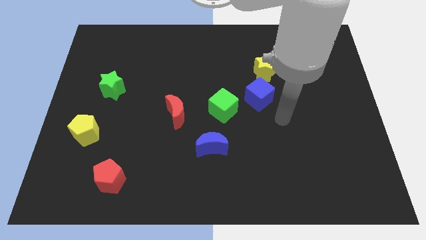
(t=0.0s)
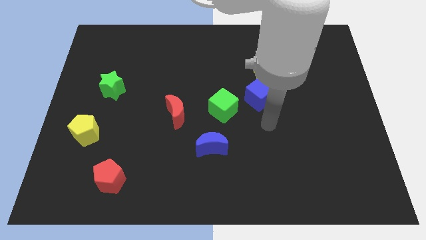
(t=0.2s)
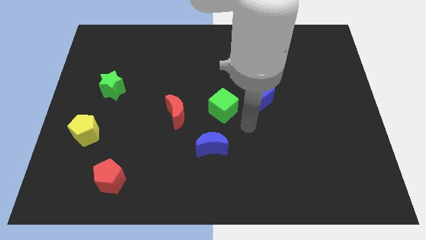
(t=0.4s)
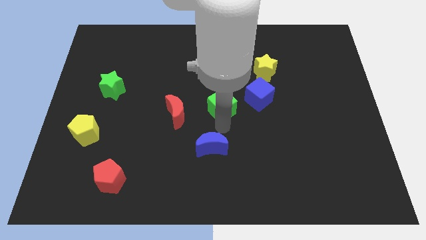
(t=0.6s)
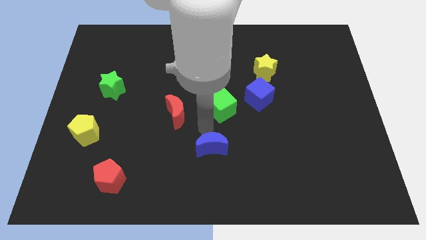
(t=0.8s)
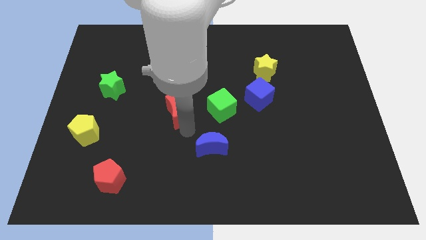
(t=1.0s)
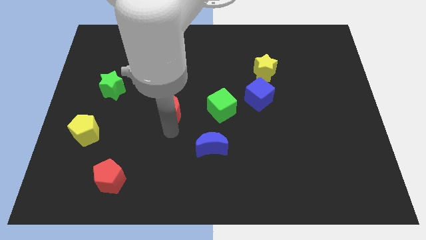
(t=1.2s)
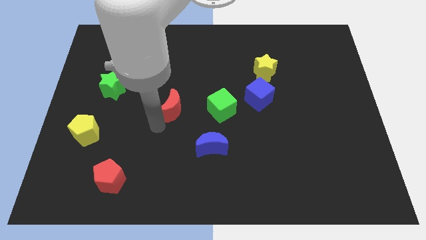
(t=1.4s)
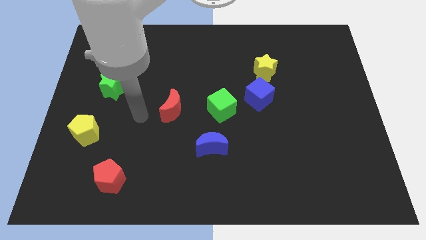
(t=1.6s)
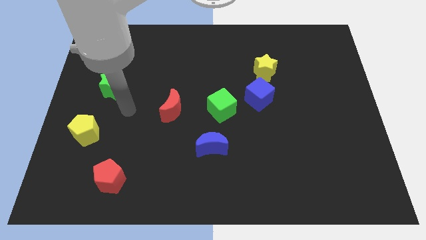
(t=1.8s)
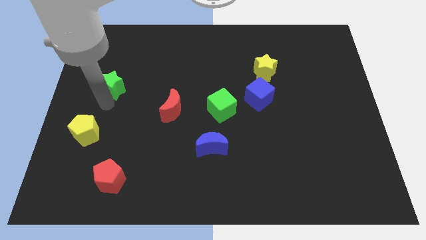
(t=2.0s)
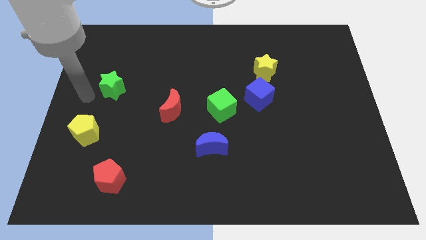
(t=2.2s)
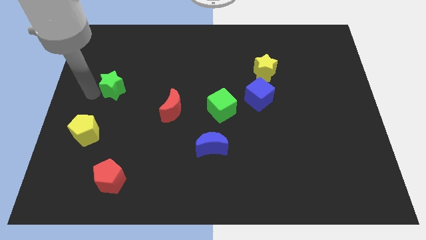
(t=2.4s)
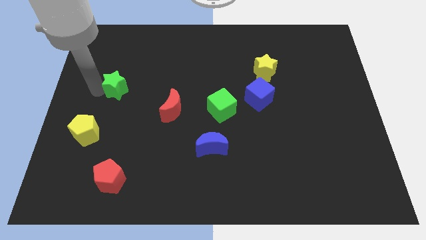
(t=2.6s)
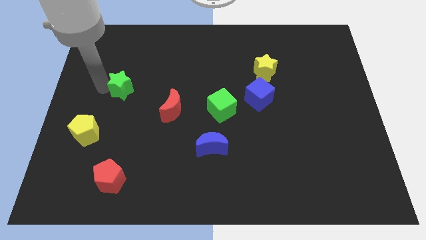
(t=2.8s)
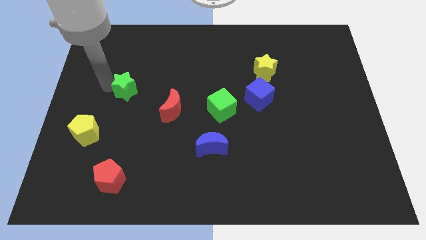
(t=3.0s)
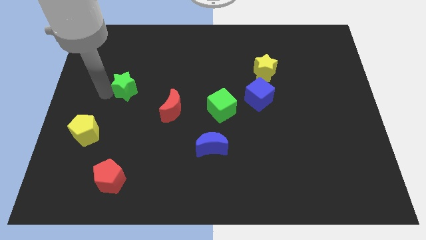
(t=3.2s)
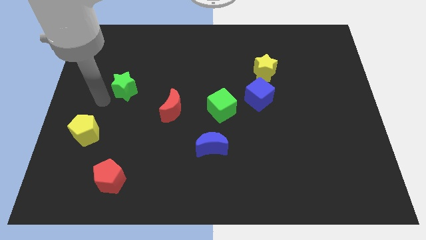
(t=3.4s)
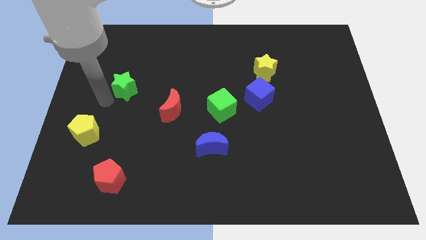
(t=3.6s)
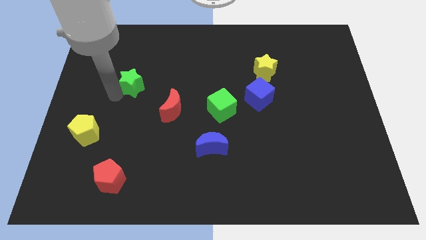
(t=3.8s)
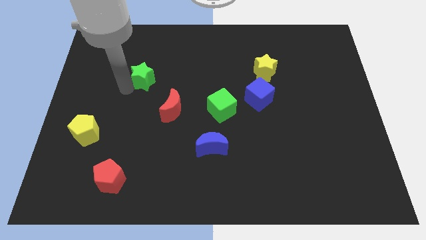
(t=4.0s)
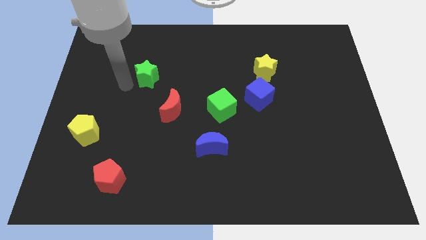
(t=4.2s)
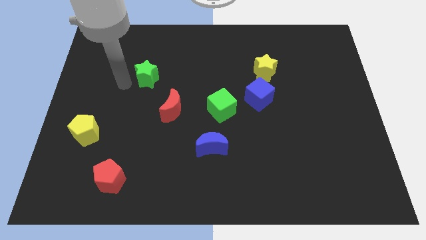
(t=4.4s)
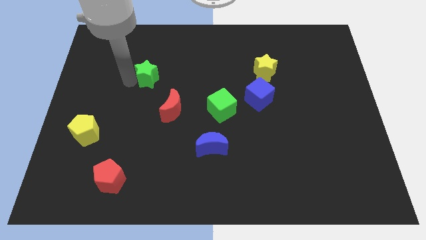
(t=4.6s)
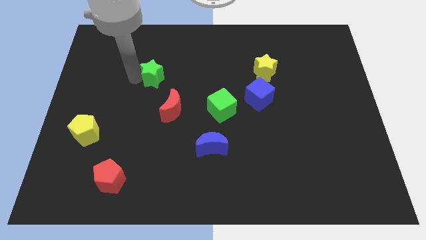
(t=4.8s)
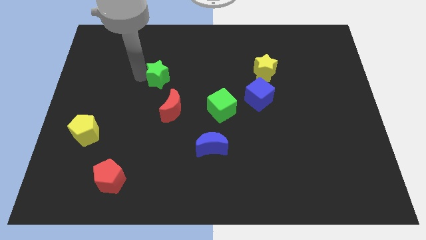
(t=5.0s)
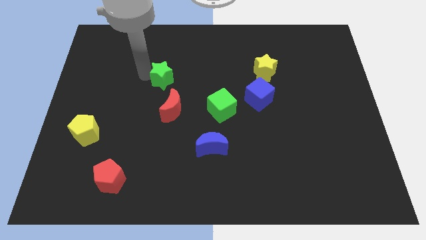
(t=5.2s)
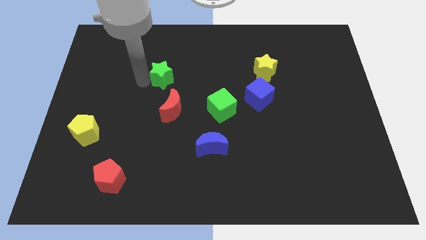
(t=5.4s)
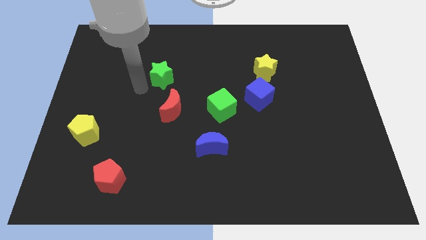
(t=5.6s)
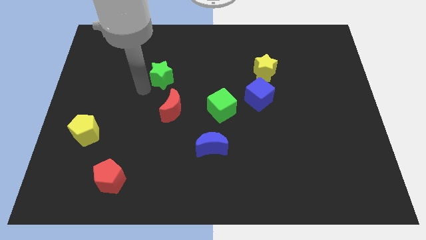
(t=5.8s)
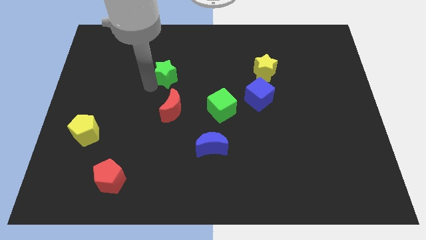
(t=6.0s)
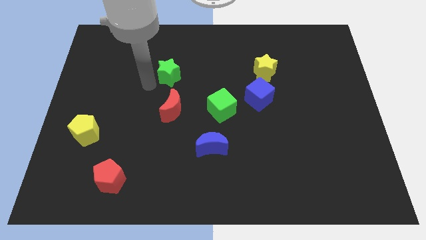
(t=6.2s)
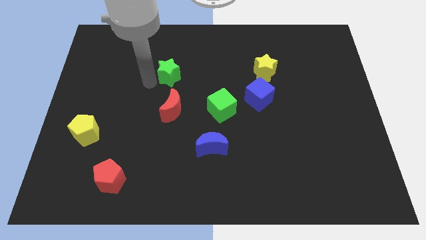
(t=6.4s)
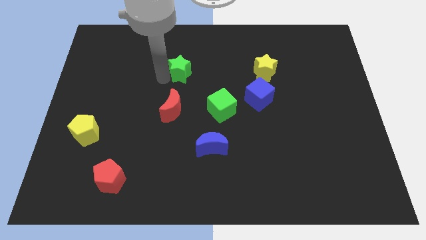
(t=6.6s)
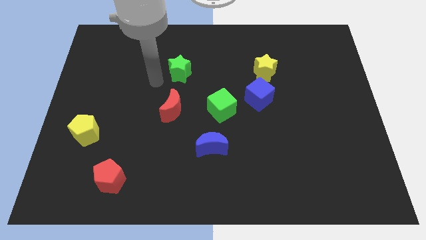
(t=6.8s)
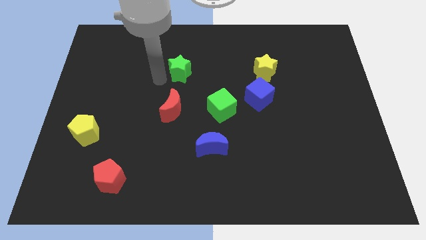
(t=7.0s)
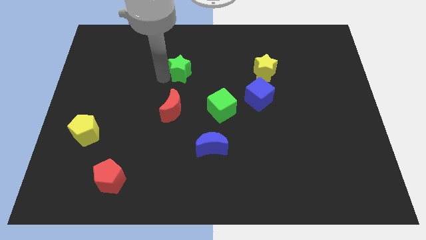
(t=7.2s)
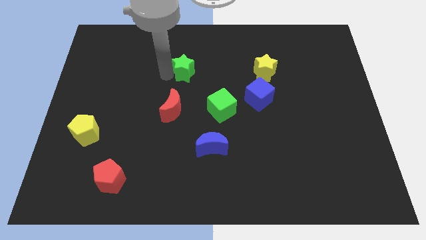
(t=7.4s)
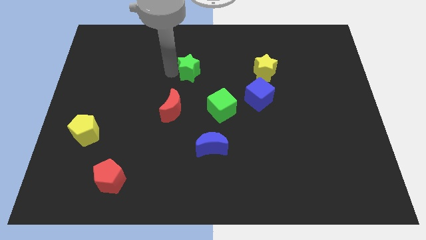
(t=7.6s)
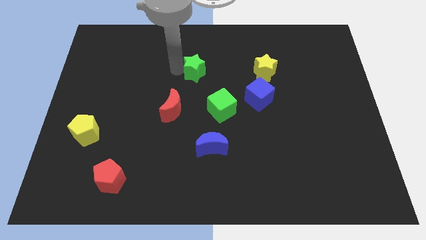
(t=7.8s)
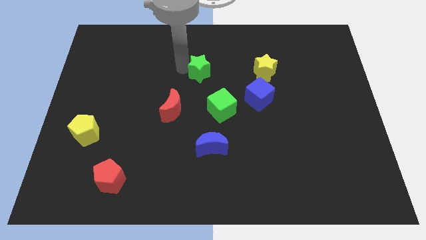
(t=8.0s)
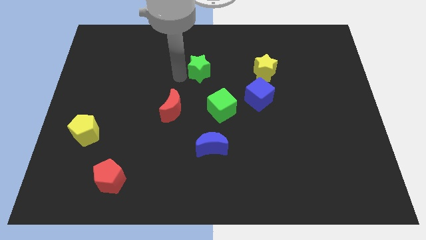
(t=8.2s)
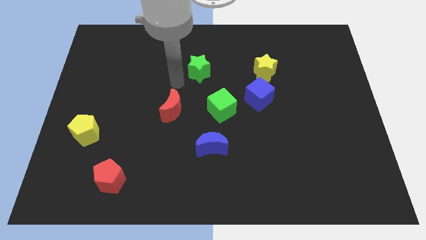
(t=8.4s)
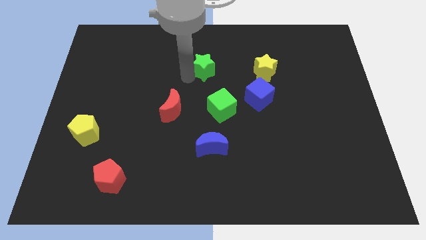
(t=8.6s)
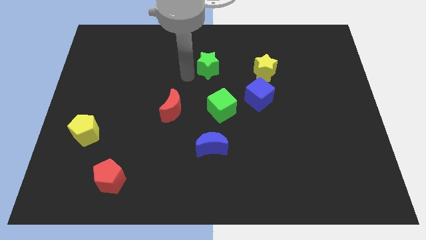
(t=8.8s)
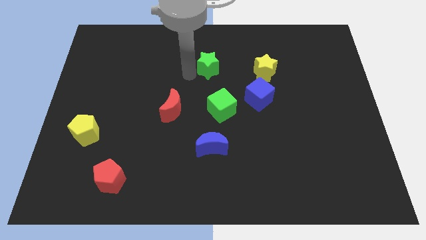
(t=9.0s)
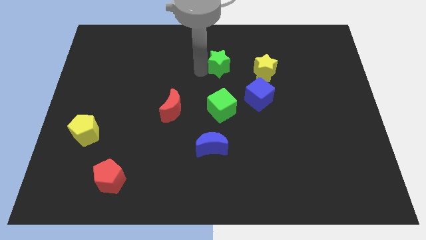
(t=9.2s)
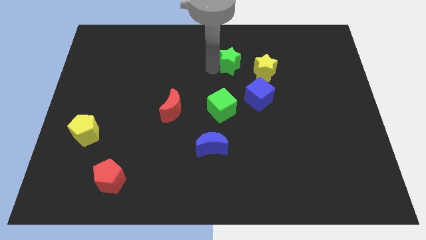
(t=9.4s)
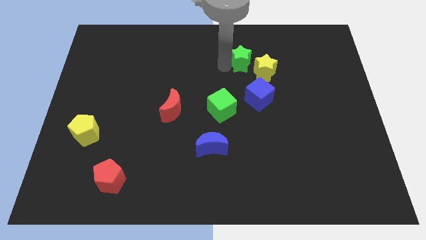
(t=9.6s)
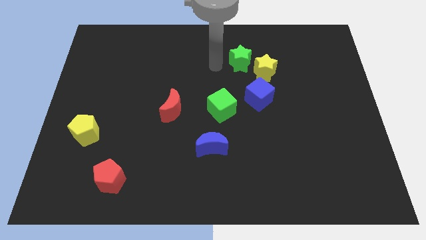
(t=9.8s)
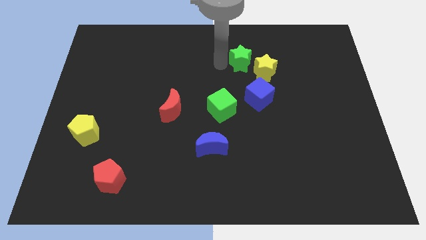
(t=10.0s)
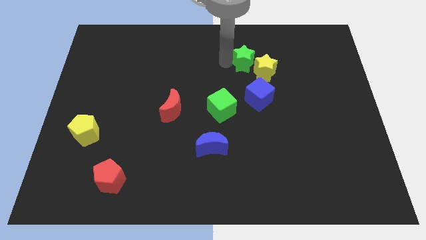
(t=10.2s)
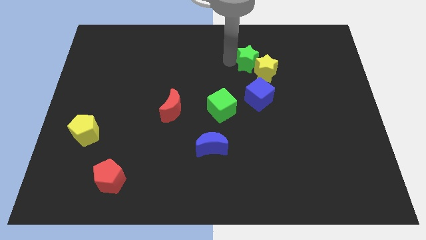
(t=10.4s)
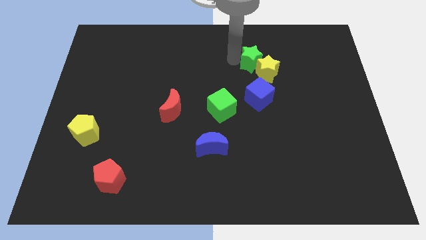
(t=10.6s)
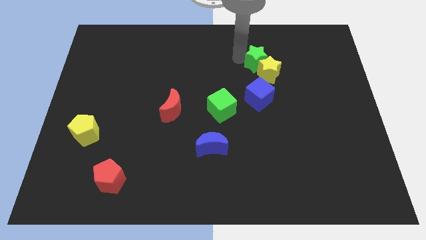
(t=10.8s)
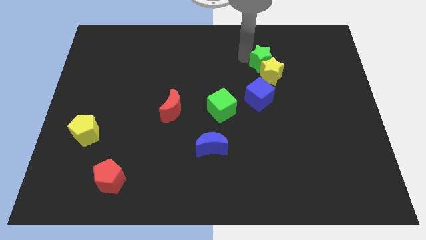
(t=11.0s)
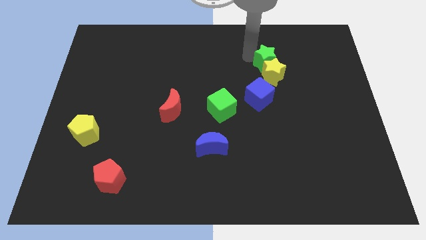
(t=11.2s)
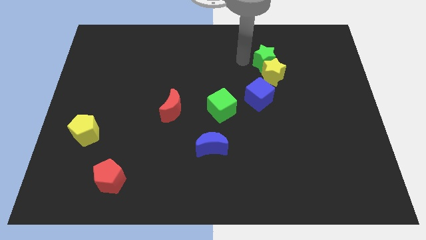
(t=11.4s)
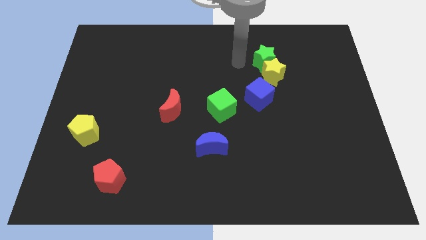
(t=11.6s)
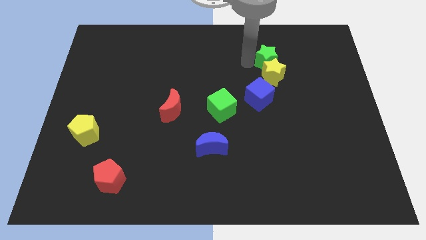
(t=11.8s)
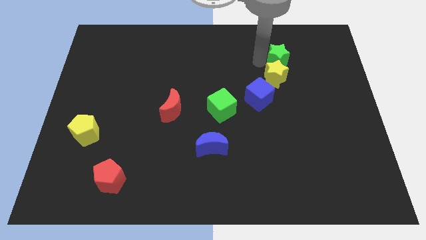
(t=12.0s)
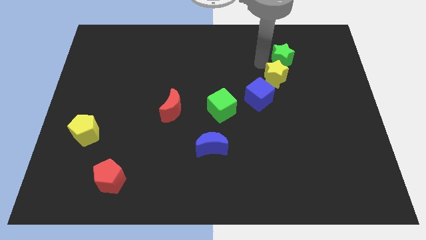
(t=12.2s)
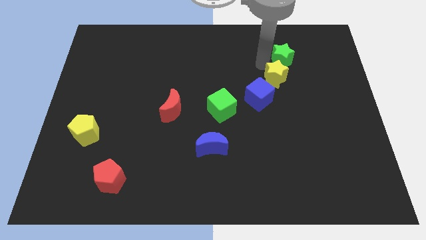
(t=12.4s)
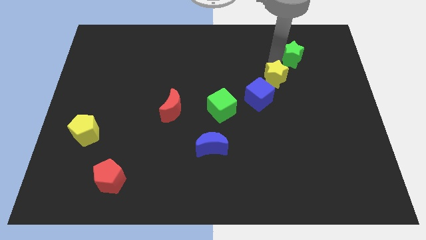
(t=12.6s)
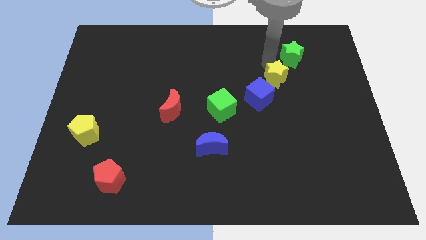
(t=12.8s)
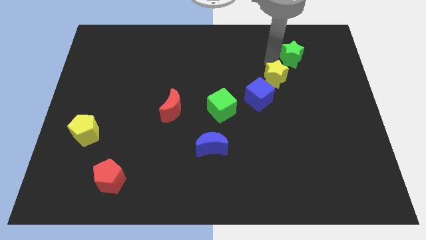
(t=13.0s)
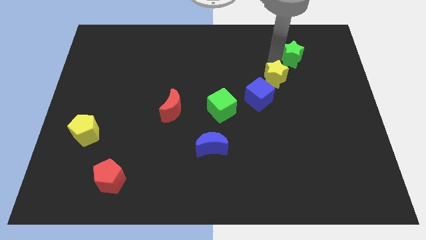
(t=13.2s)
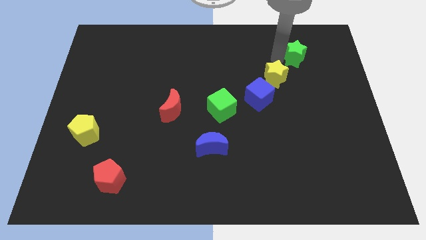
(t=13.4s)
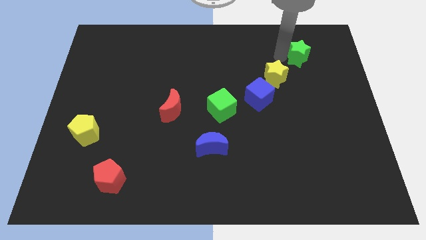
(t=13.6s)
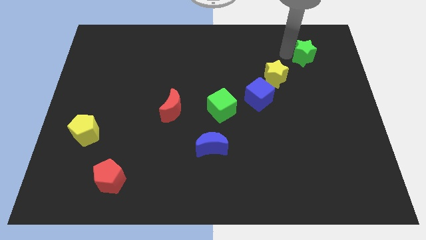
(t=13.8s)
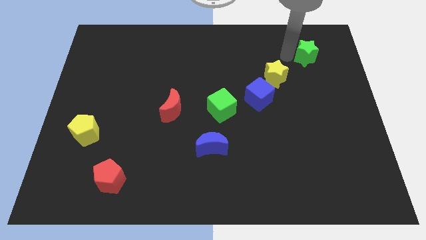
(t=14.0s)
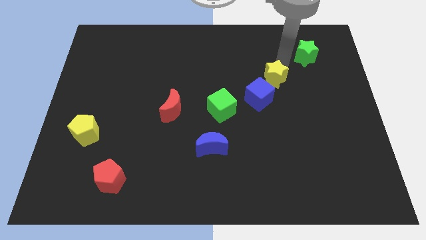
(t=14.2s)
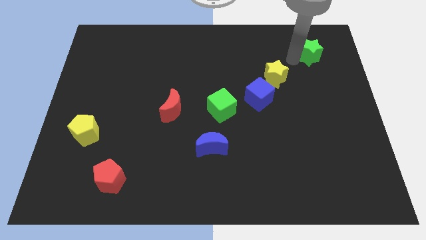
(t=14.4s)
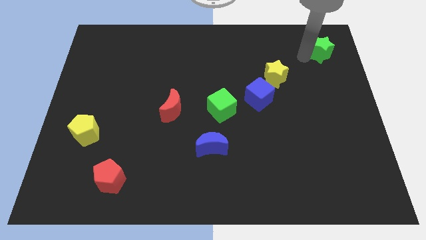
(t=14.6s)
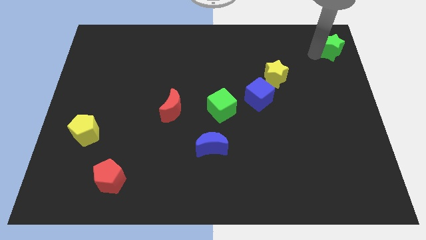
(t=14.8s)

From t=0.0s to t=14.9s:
push the green star to the upper right corner
